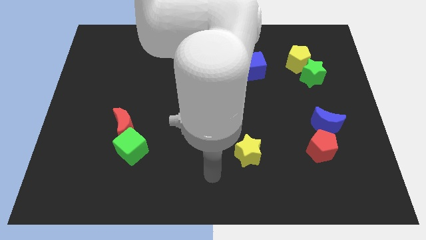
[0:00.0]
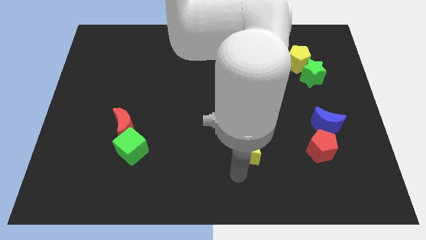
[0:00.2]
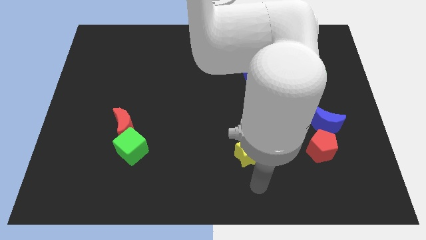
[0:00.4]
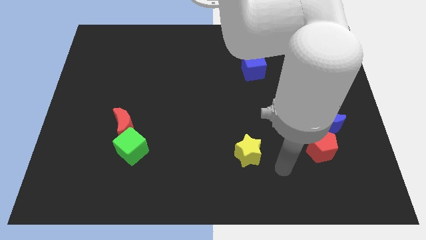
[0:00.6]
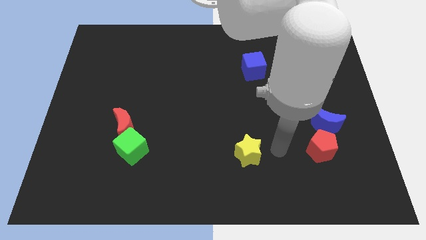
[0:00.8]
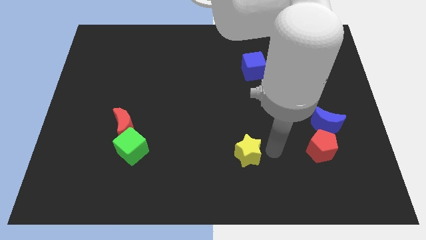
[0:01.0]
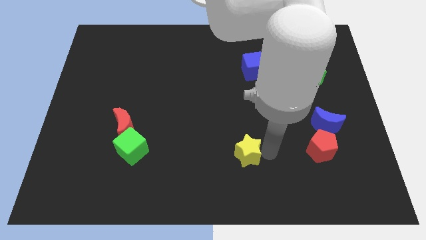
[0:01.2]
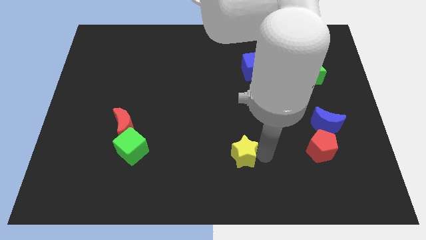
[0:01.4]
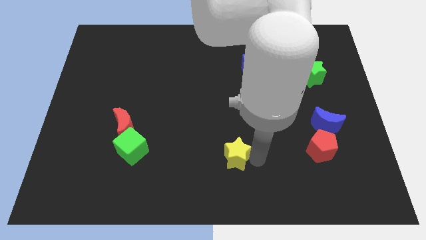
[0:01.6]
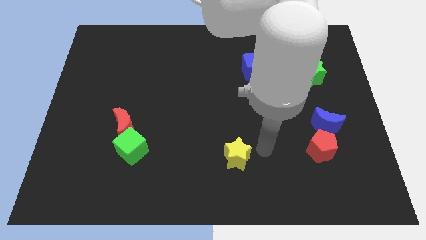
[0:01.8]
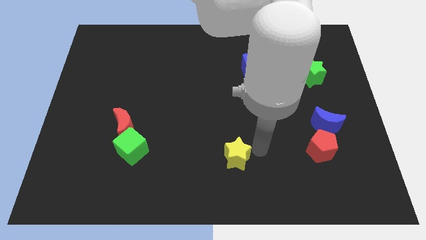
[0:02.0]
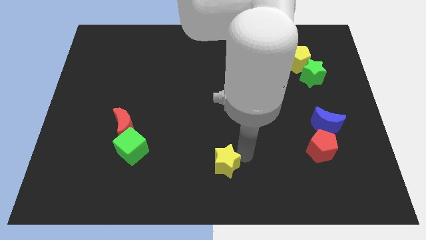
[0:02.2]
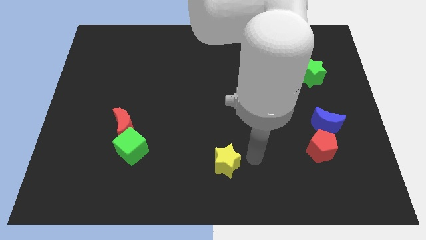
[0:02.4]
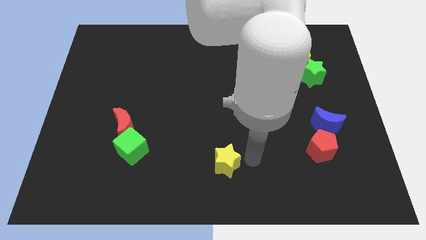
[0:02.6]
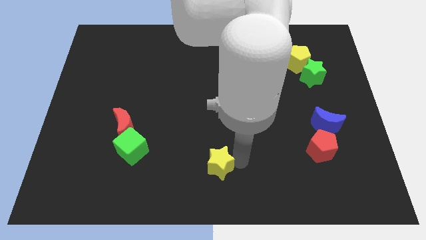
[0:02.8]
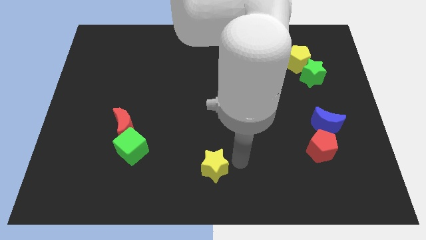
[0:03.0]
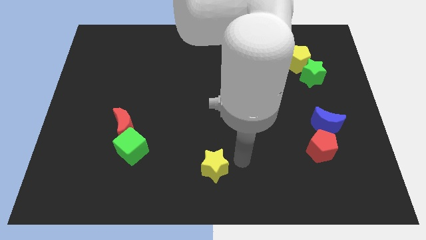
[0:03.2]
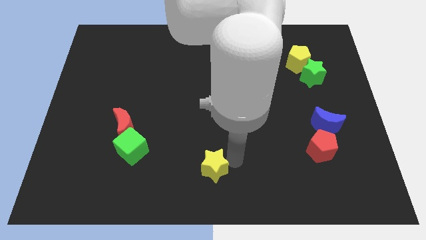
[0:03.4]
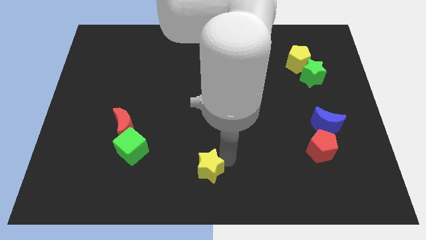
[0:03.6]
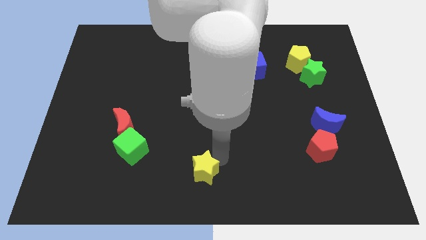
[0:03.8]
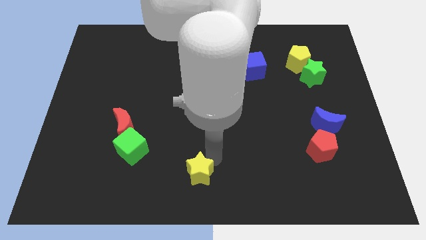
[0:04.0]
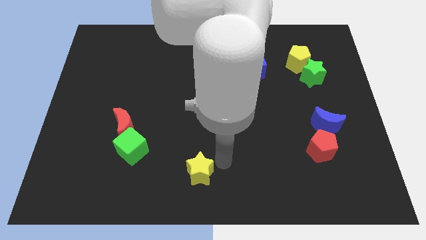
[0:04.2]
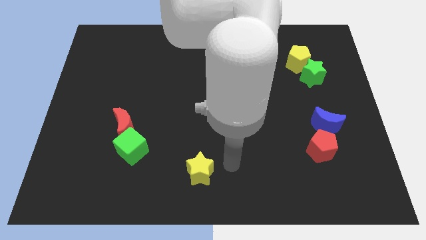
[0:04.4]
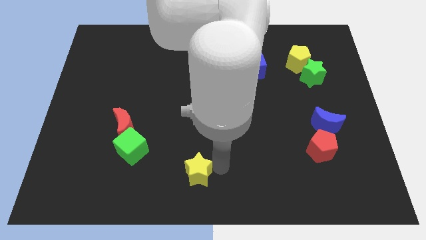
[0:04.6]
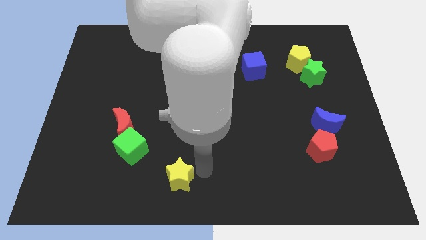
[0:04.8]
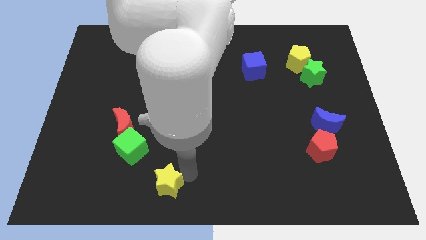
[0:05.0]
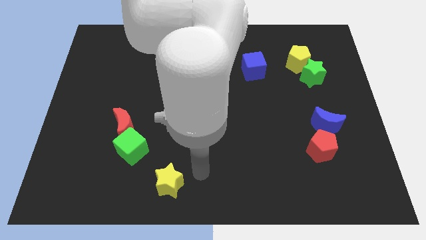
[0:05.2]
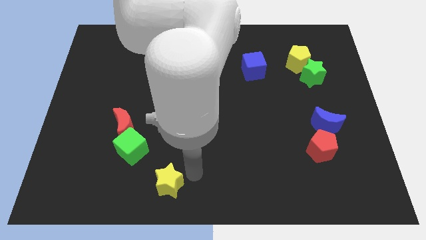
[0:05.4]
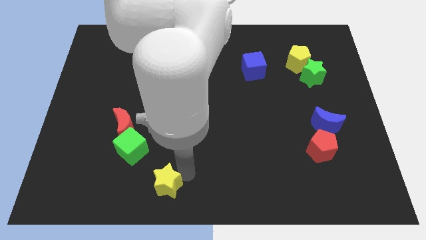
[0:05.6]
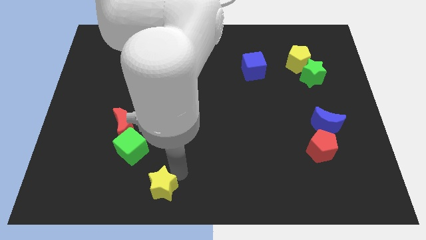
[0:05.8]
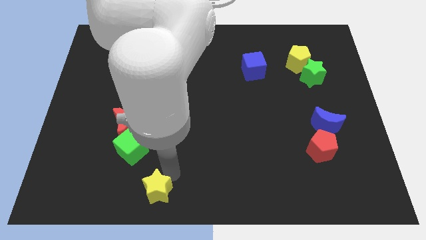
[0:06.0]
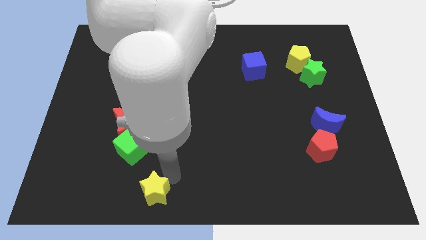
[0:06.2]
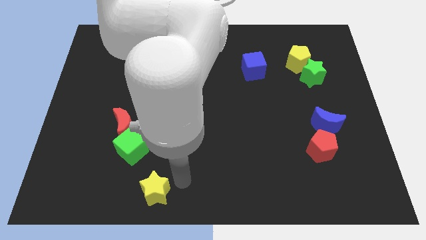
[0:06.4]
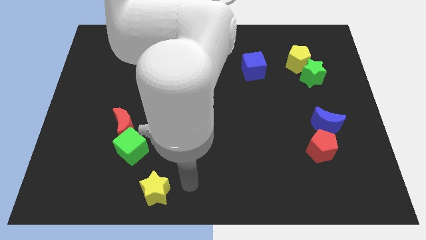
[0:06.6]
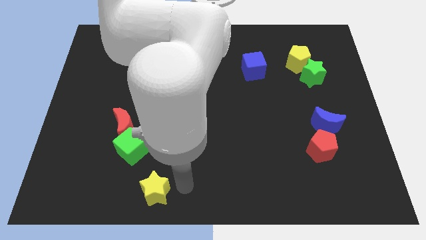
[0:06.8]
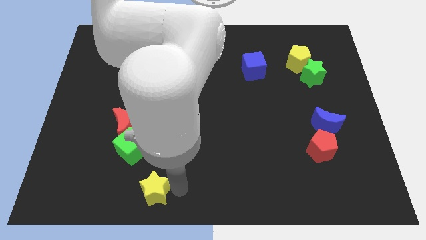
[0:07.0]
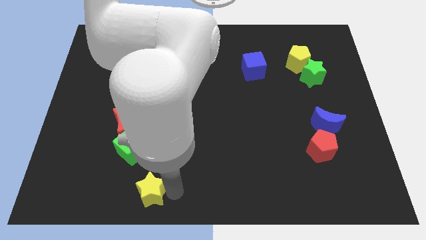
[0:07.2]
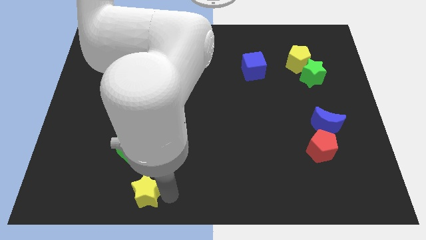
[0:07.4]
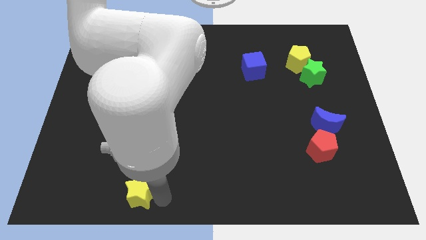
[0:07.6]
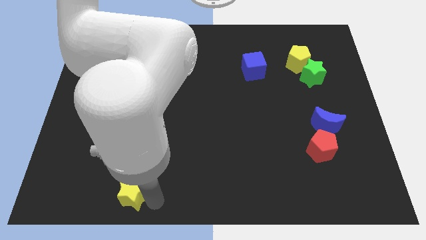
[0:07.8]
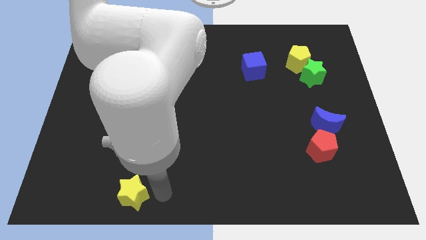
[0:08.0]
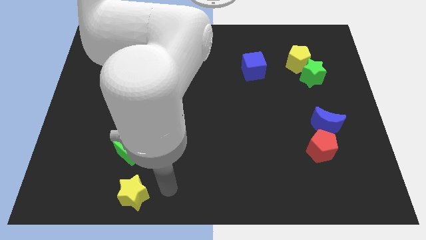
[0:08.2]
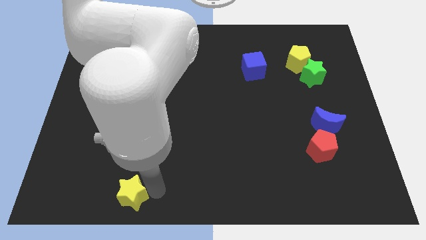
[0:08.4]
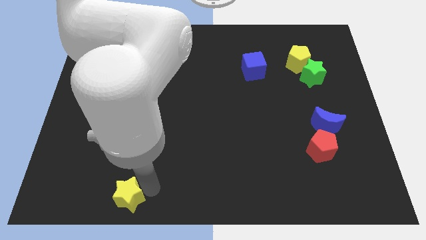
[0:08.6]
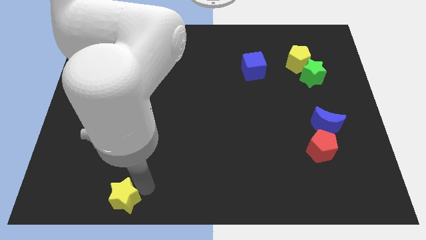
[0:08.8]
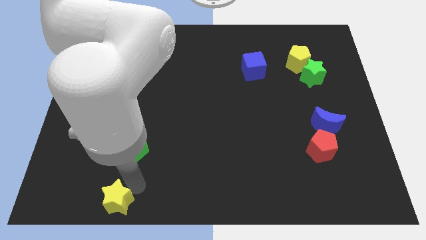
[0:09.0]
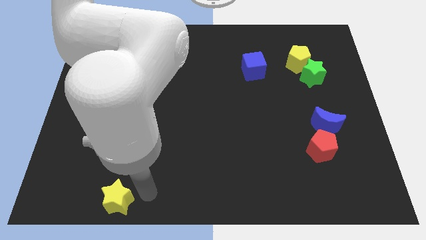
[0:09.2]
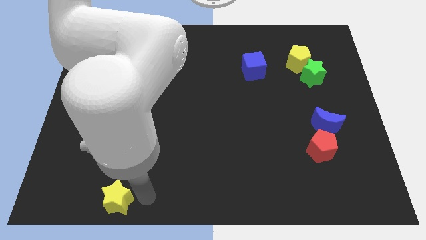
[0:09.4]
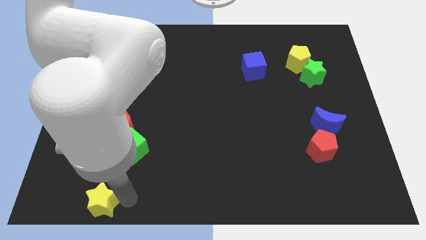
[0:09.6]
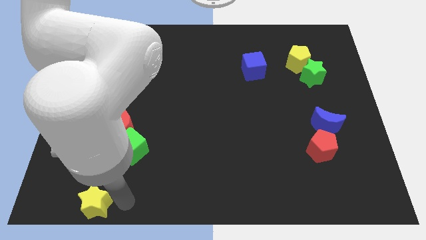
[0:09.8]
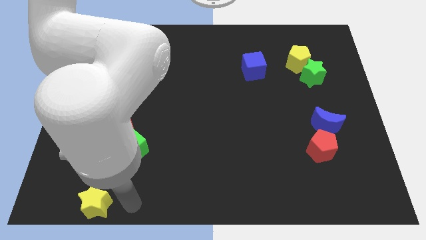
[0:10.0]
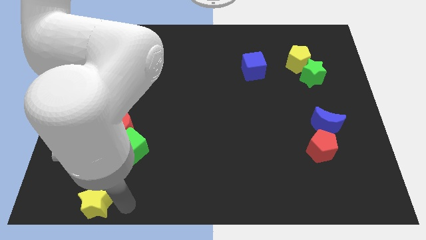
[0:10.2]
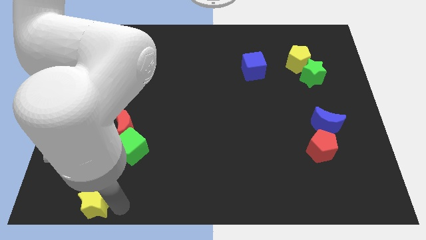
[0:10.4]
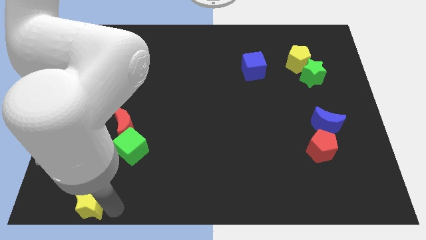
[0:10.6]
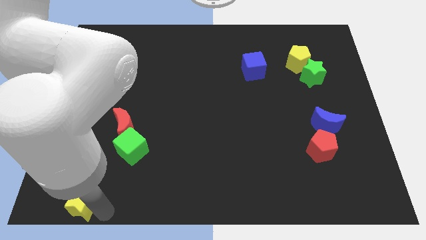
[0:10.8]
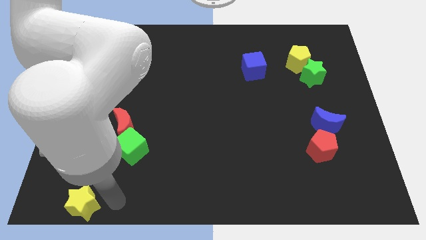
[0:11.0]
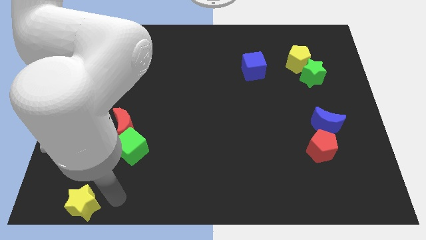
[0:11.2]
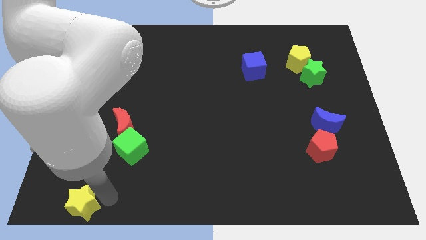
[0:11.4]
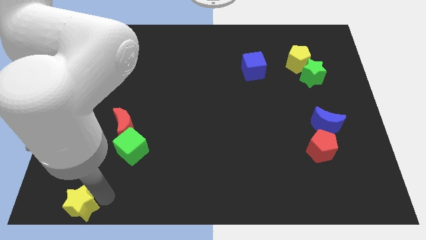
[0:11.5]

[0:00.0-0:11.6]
slide the yellow star to the bottom left corner

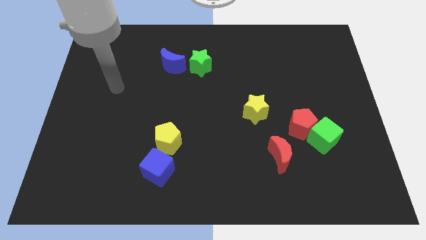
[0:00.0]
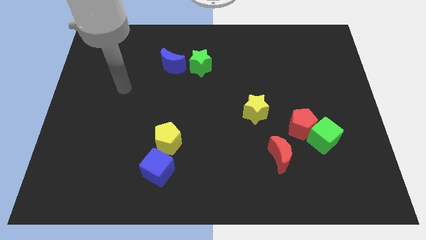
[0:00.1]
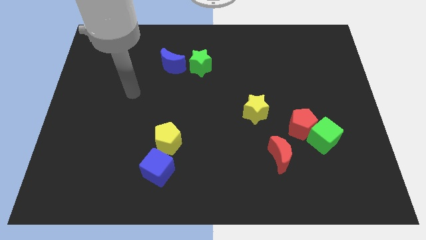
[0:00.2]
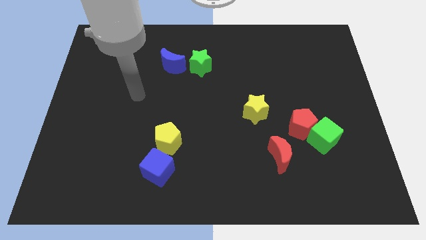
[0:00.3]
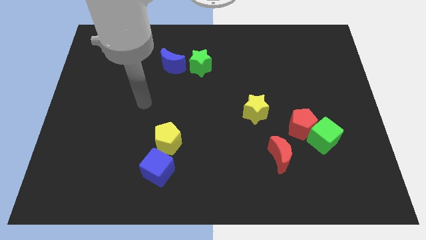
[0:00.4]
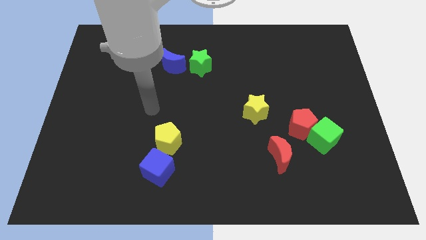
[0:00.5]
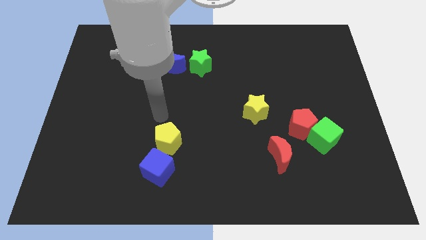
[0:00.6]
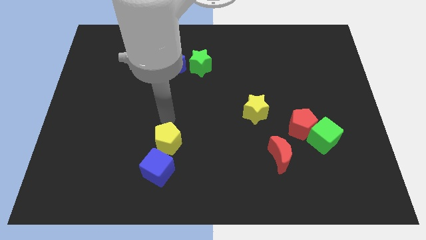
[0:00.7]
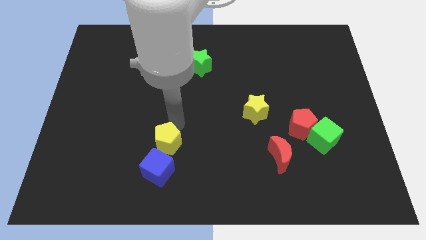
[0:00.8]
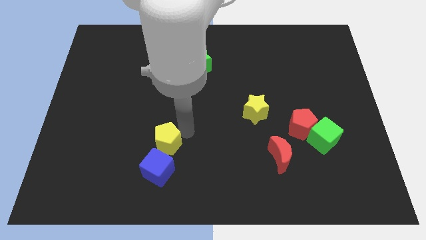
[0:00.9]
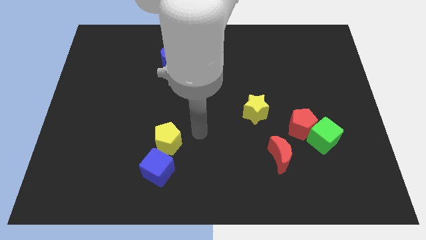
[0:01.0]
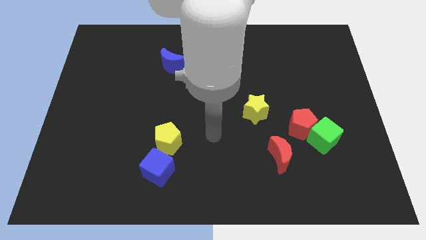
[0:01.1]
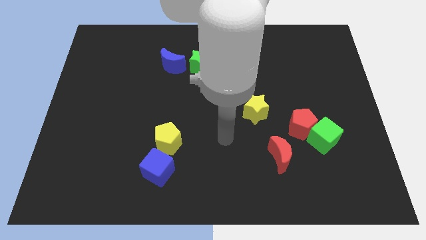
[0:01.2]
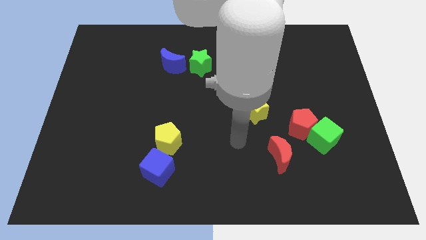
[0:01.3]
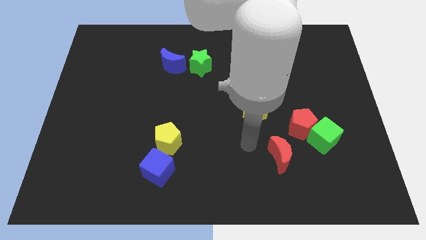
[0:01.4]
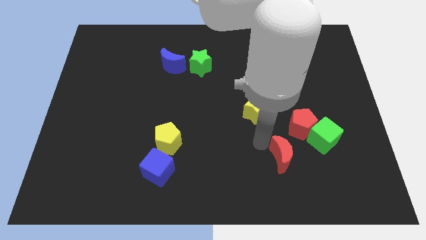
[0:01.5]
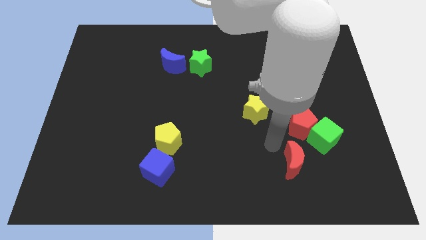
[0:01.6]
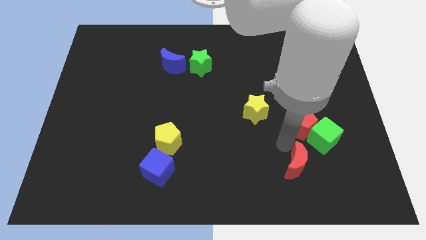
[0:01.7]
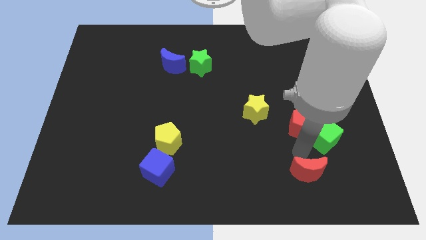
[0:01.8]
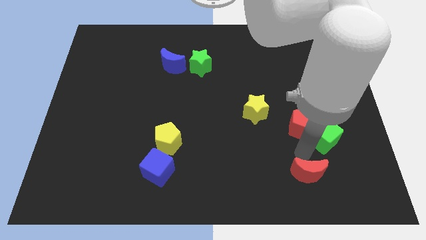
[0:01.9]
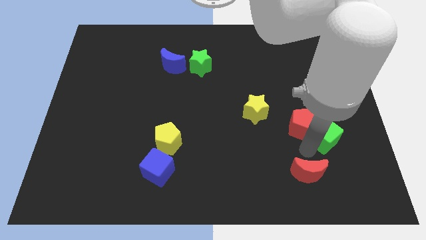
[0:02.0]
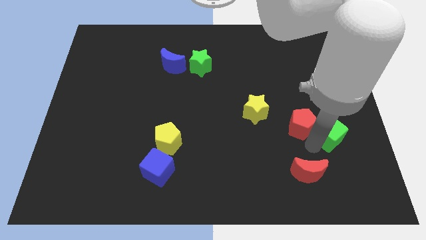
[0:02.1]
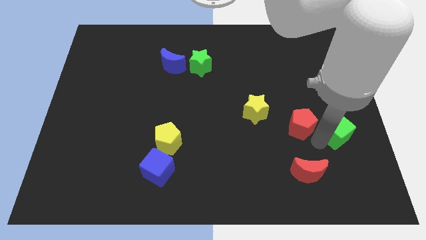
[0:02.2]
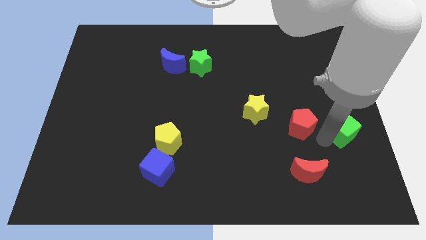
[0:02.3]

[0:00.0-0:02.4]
slide the green cube to the center right
